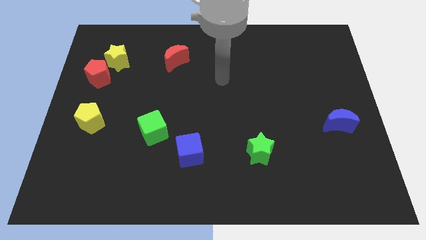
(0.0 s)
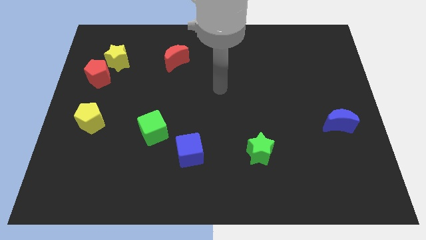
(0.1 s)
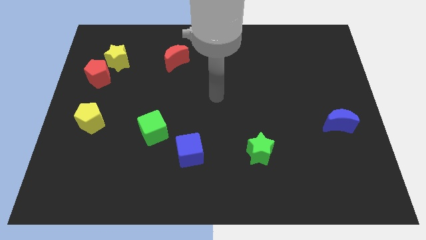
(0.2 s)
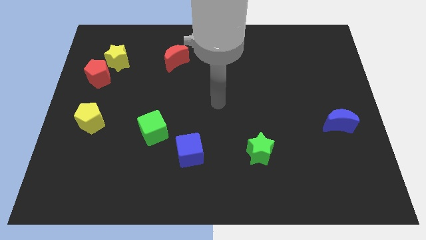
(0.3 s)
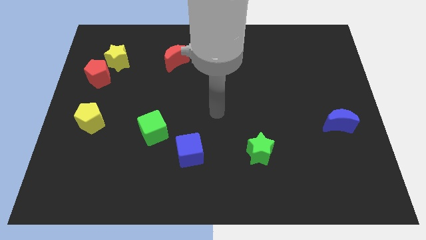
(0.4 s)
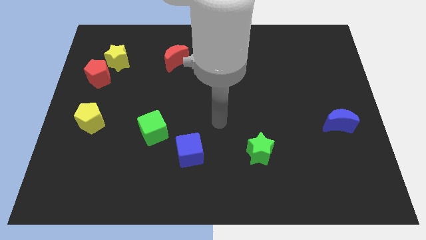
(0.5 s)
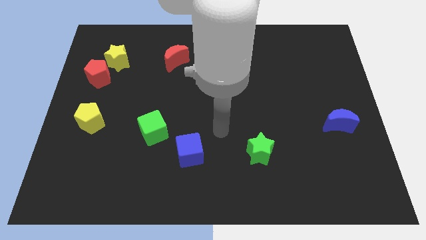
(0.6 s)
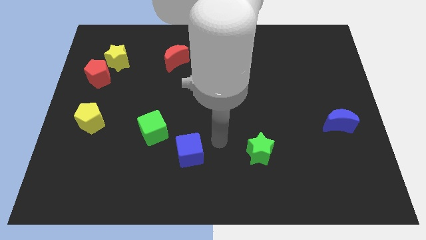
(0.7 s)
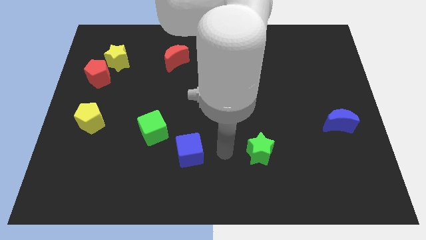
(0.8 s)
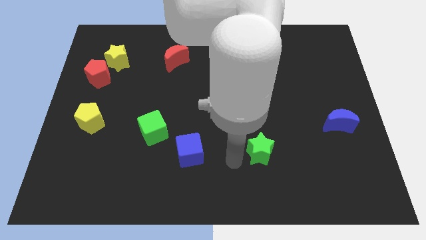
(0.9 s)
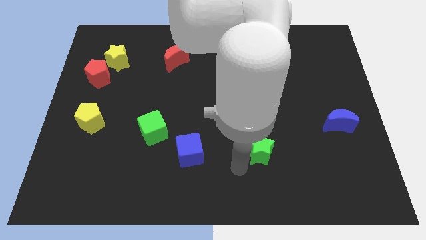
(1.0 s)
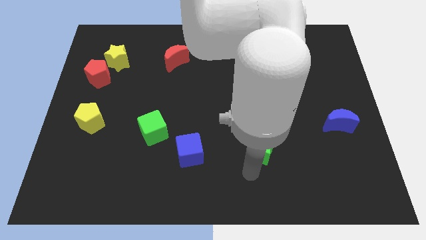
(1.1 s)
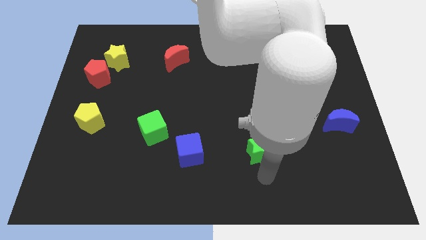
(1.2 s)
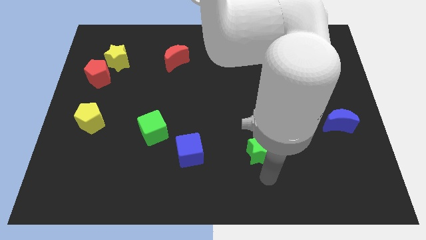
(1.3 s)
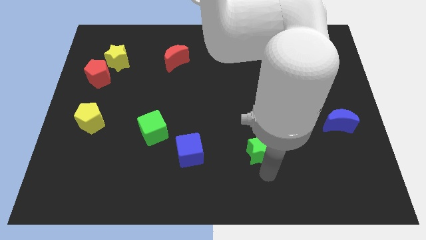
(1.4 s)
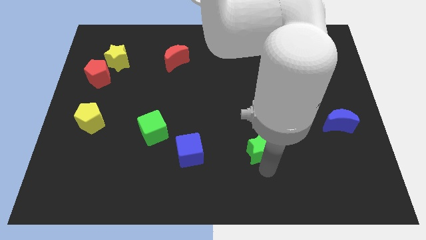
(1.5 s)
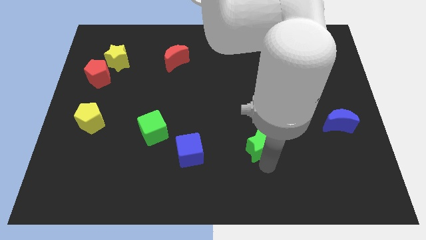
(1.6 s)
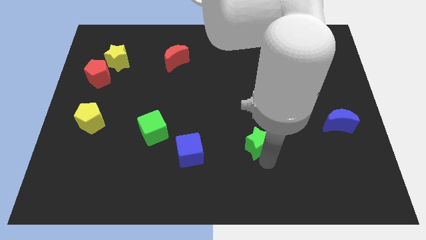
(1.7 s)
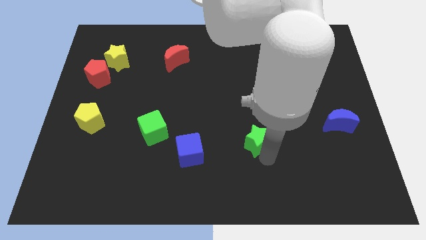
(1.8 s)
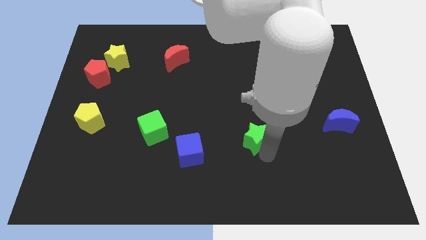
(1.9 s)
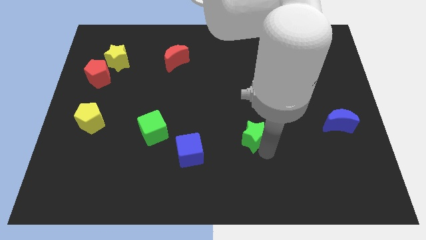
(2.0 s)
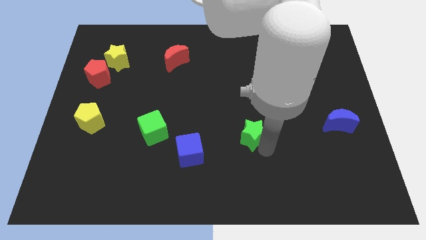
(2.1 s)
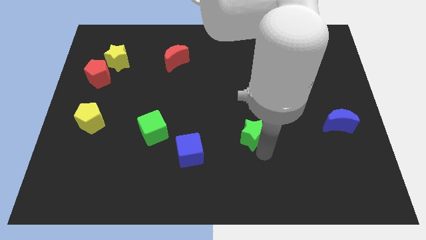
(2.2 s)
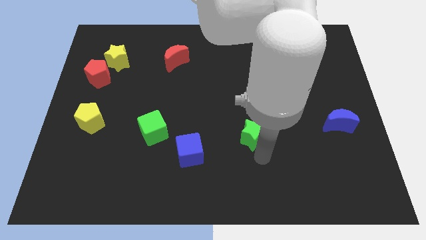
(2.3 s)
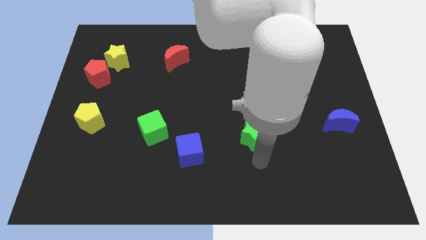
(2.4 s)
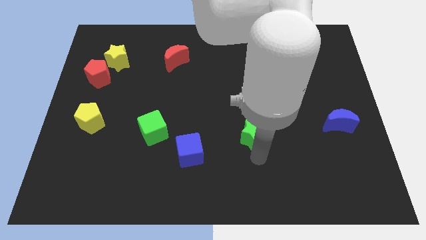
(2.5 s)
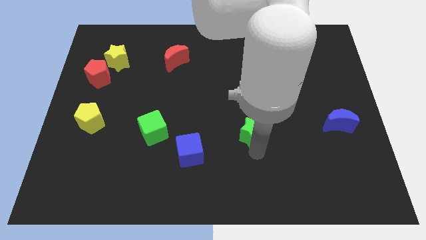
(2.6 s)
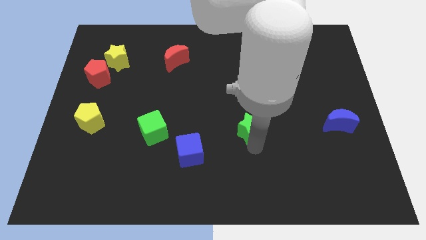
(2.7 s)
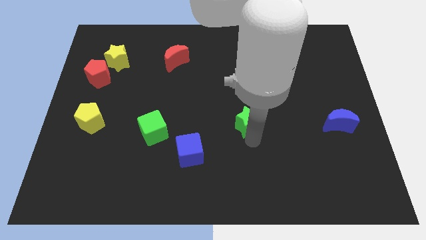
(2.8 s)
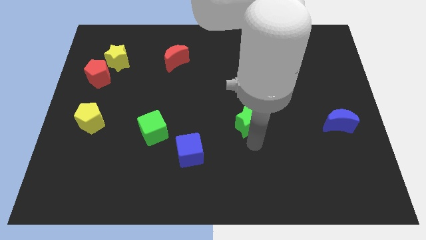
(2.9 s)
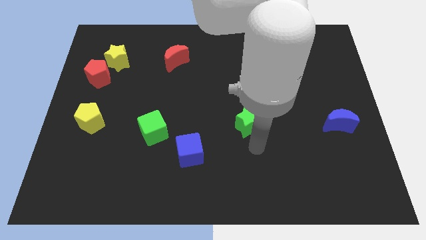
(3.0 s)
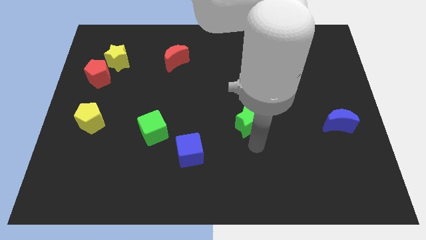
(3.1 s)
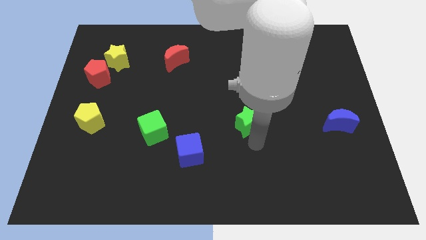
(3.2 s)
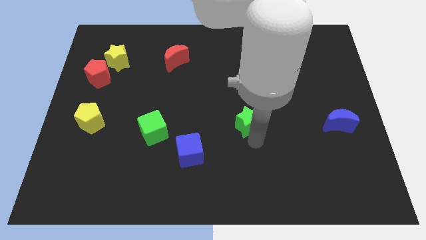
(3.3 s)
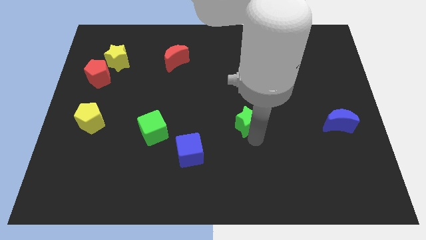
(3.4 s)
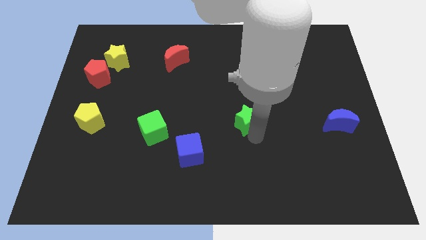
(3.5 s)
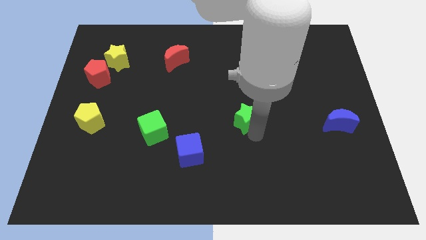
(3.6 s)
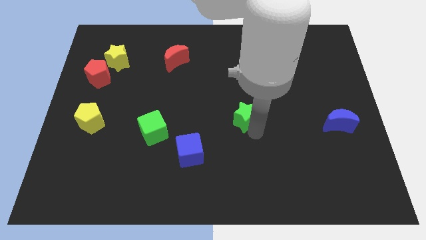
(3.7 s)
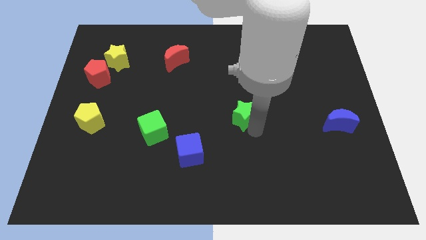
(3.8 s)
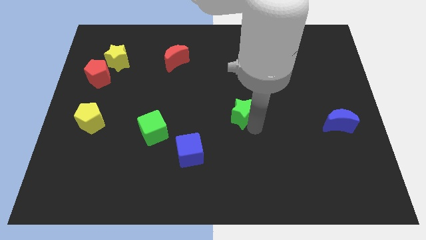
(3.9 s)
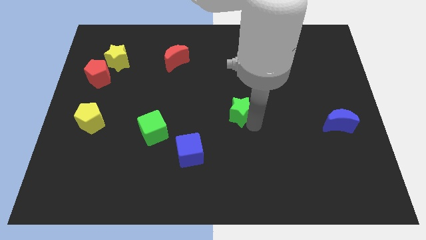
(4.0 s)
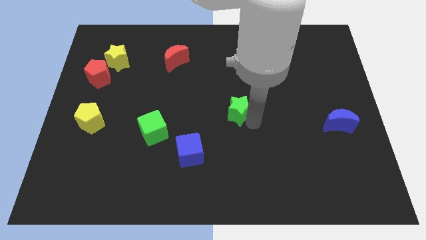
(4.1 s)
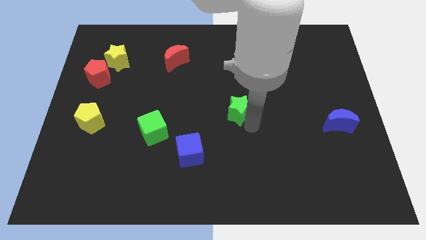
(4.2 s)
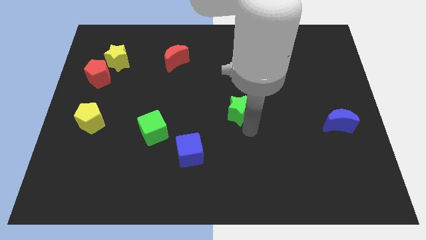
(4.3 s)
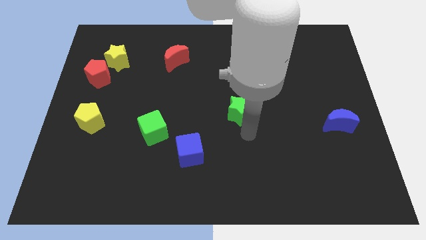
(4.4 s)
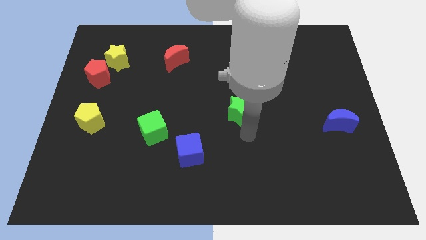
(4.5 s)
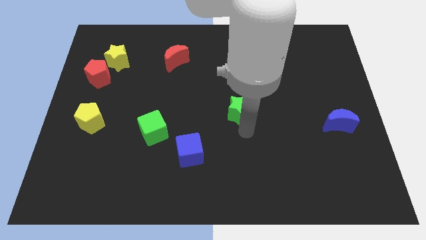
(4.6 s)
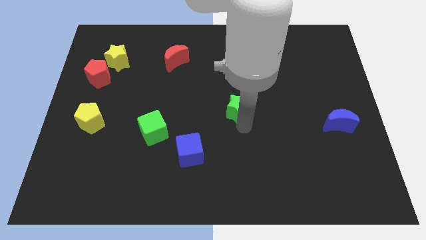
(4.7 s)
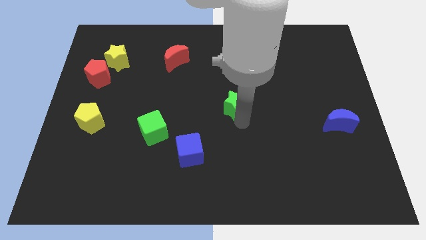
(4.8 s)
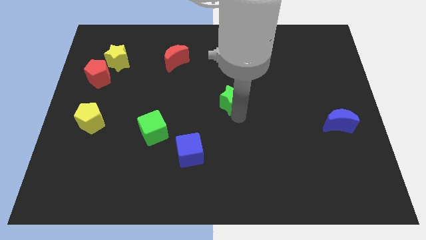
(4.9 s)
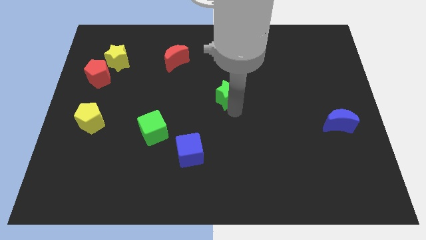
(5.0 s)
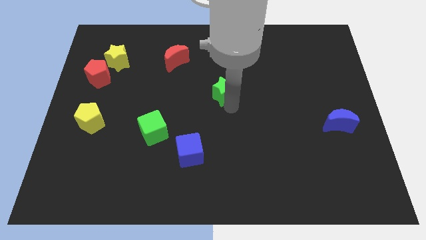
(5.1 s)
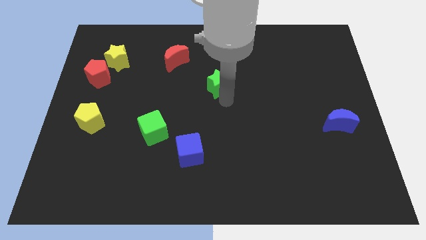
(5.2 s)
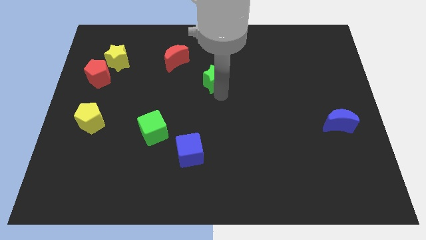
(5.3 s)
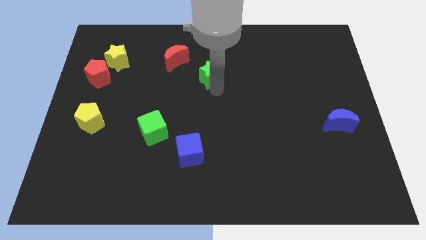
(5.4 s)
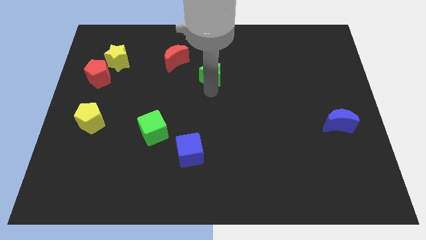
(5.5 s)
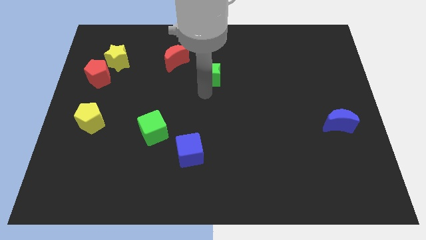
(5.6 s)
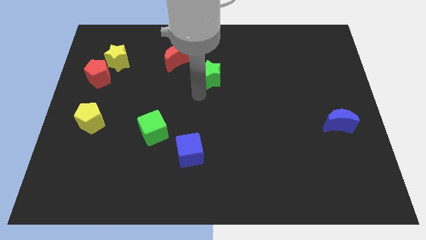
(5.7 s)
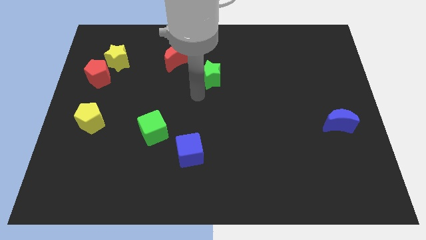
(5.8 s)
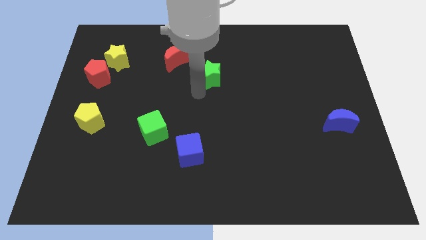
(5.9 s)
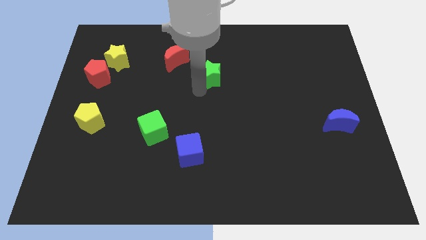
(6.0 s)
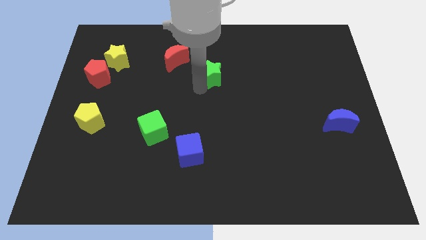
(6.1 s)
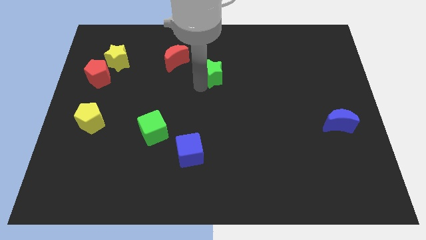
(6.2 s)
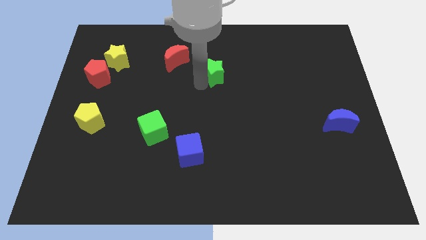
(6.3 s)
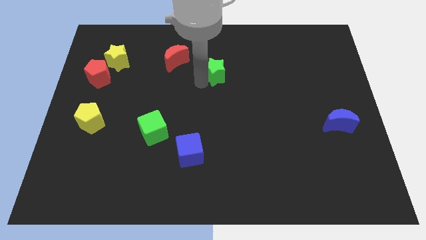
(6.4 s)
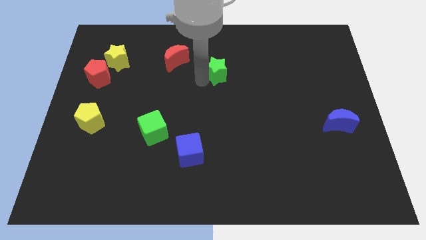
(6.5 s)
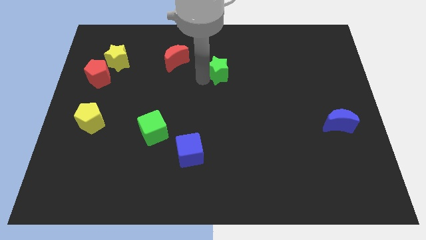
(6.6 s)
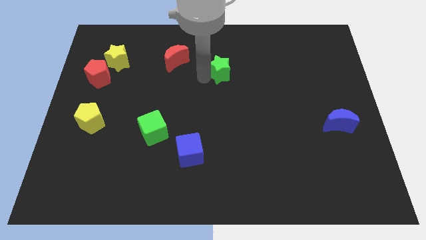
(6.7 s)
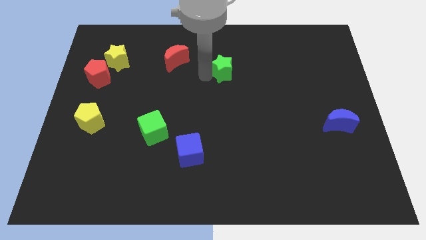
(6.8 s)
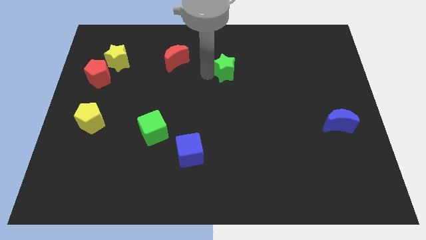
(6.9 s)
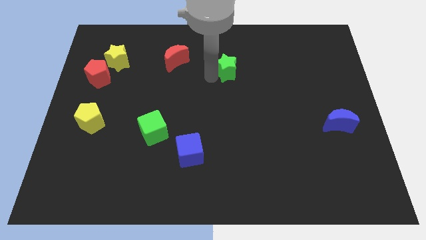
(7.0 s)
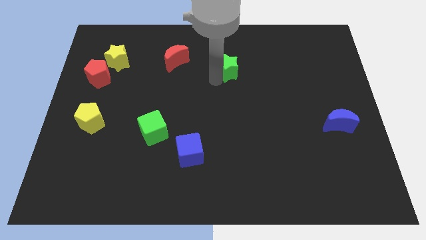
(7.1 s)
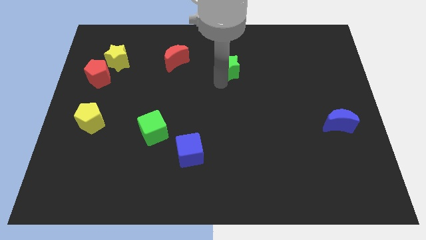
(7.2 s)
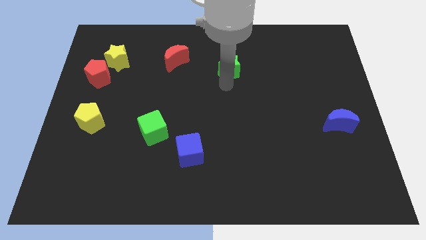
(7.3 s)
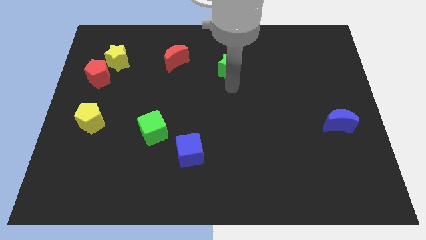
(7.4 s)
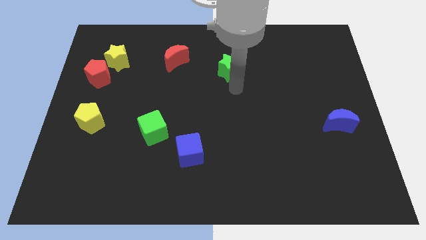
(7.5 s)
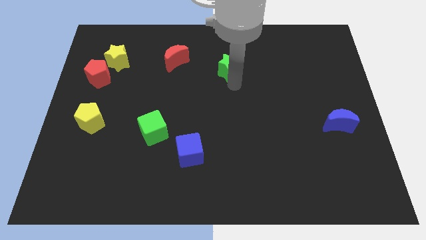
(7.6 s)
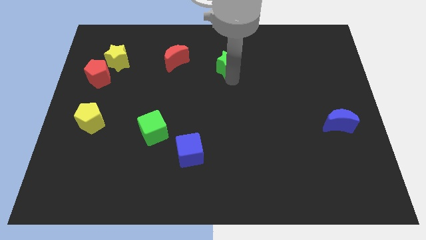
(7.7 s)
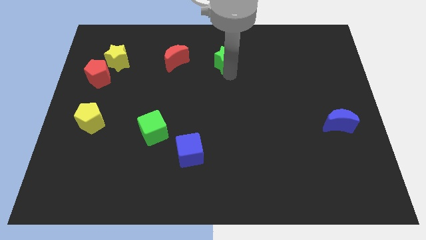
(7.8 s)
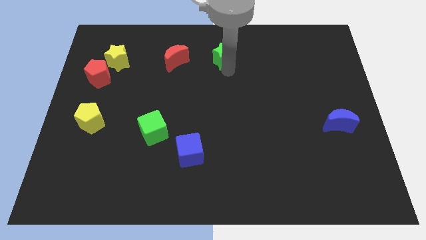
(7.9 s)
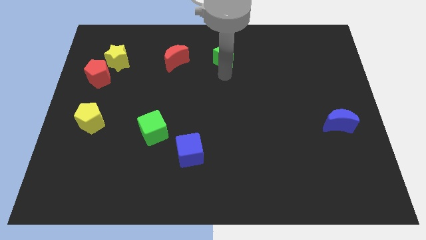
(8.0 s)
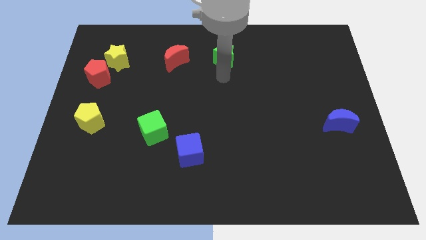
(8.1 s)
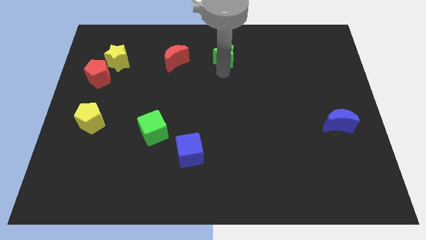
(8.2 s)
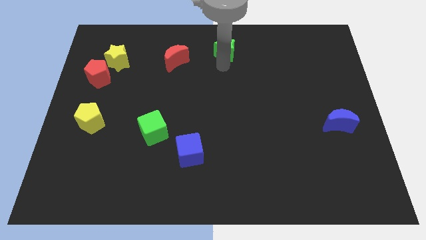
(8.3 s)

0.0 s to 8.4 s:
move the green star to the towards your base
